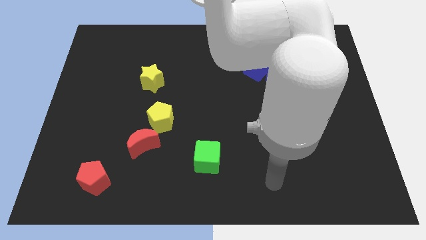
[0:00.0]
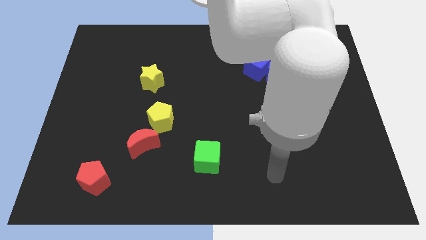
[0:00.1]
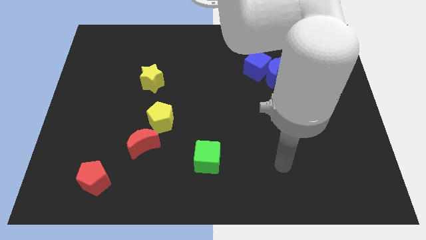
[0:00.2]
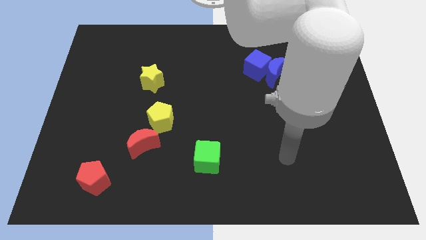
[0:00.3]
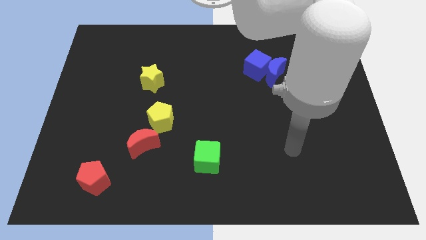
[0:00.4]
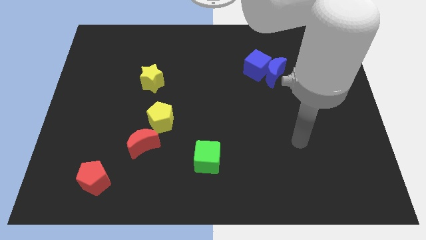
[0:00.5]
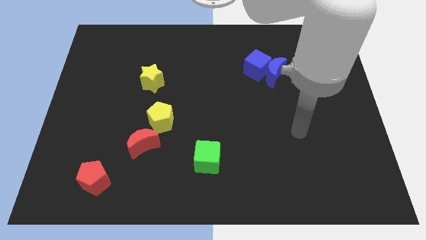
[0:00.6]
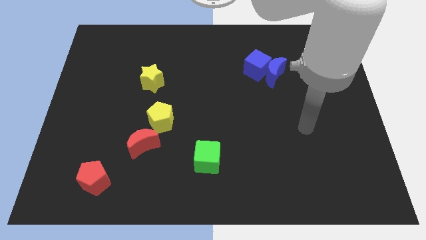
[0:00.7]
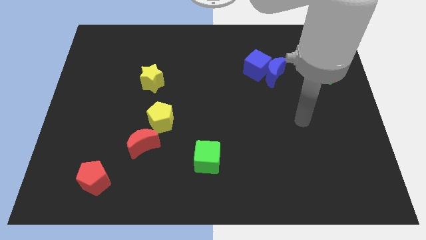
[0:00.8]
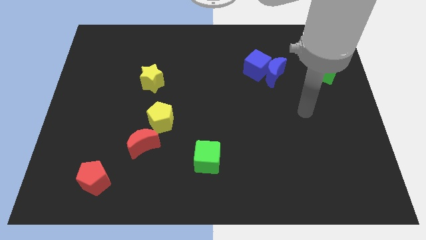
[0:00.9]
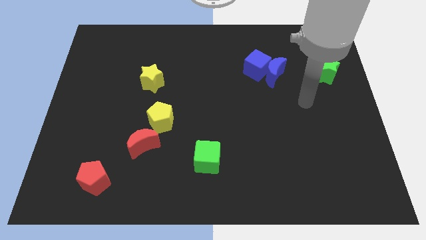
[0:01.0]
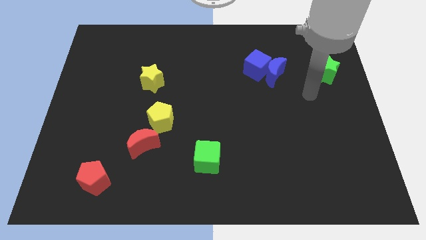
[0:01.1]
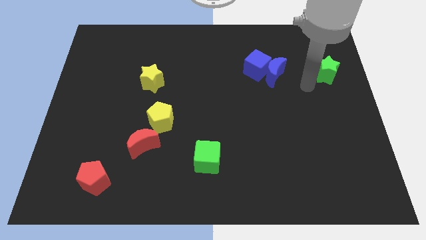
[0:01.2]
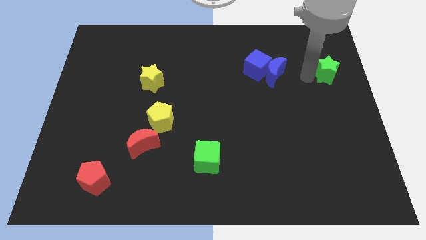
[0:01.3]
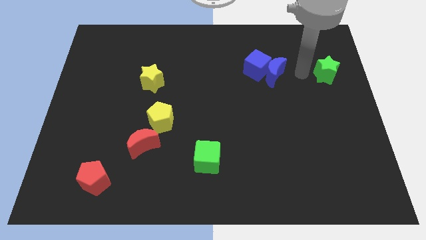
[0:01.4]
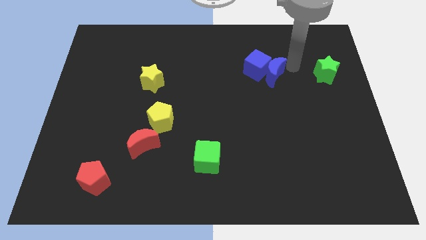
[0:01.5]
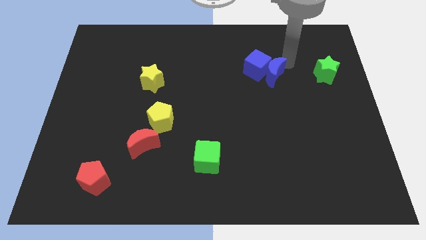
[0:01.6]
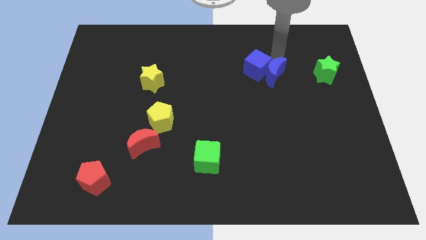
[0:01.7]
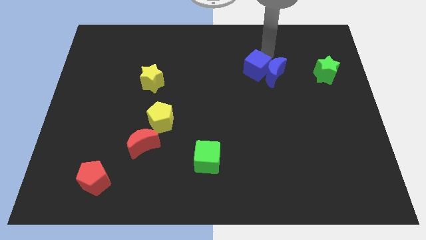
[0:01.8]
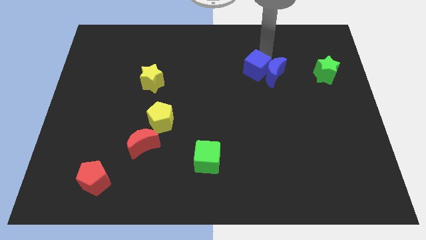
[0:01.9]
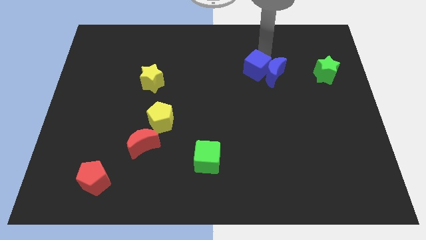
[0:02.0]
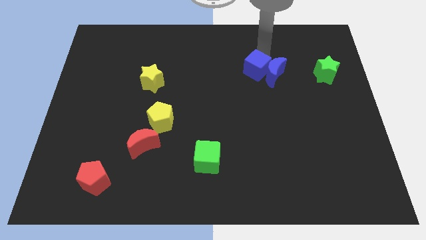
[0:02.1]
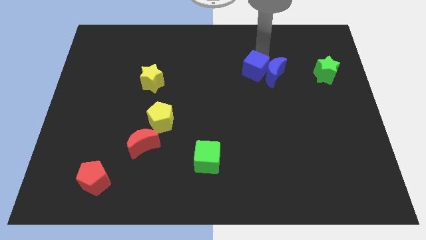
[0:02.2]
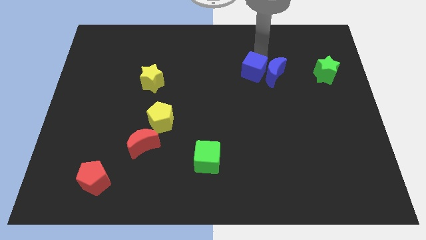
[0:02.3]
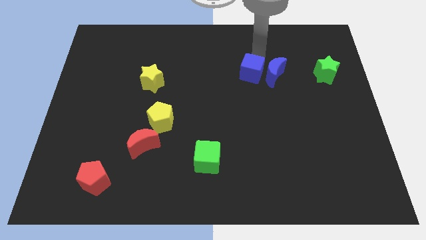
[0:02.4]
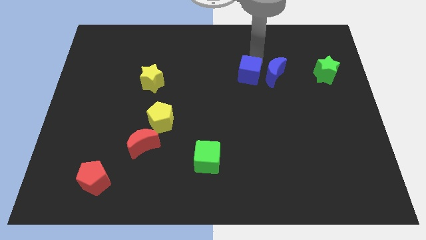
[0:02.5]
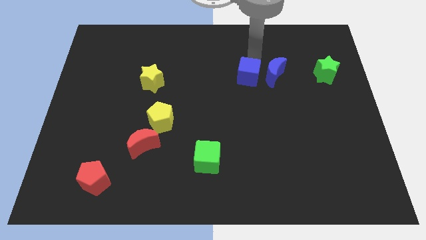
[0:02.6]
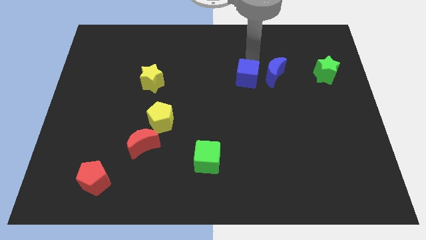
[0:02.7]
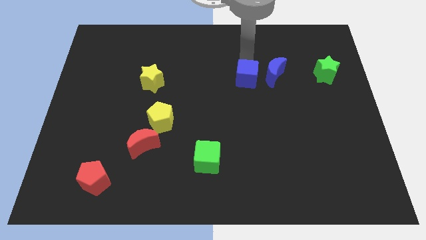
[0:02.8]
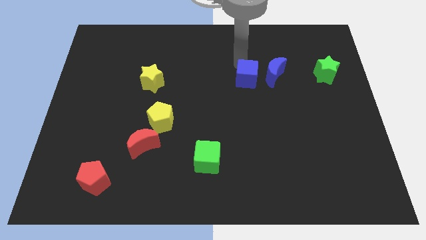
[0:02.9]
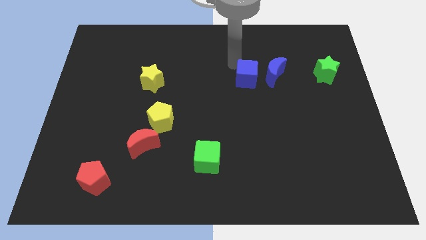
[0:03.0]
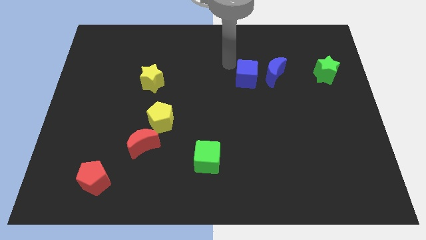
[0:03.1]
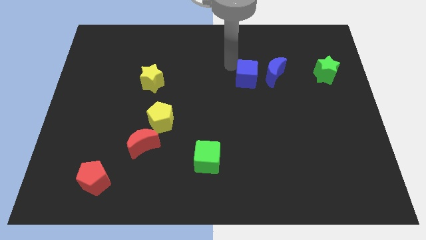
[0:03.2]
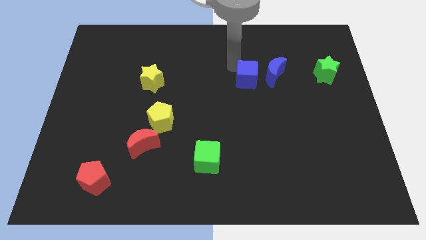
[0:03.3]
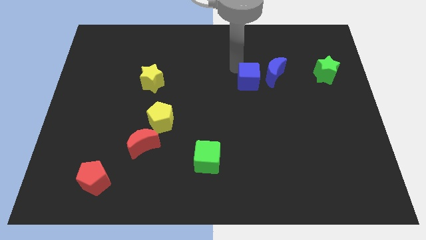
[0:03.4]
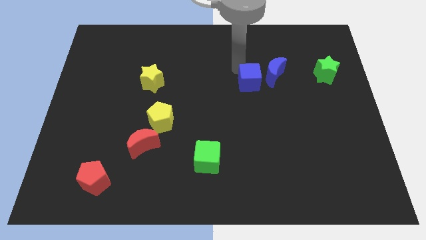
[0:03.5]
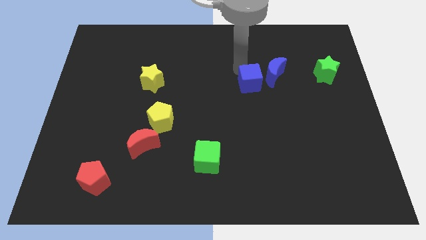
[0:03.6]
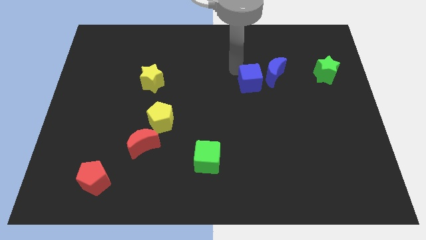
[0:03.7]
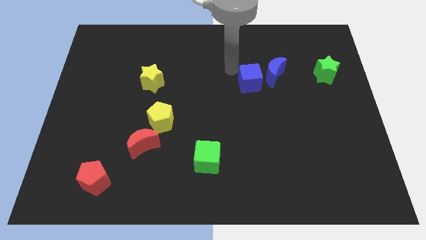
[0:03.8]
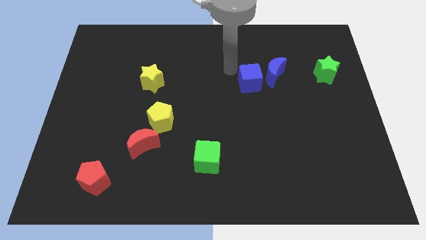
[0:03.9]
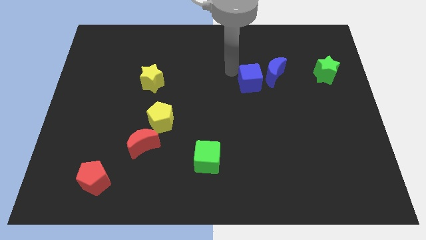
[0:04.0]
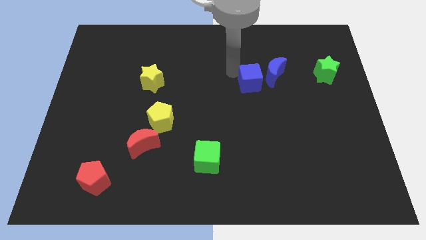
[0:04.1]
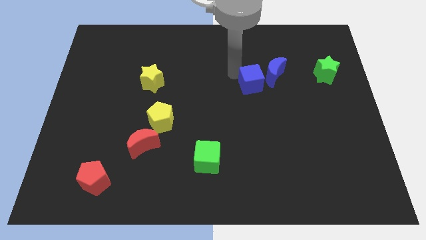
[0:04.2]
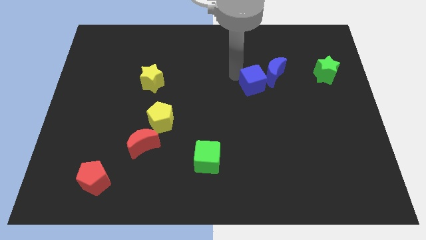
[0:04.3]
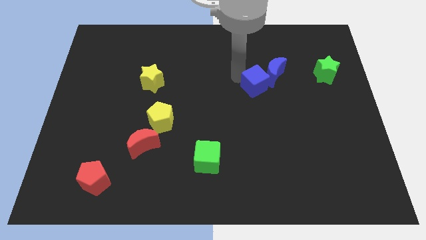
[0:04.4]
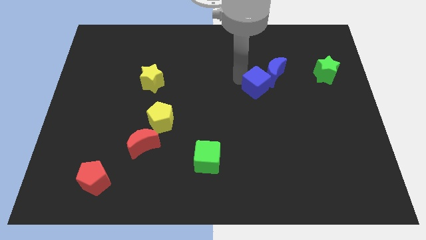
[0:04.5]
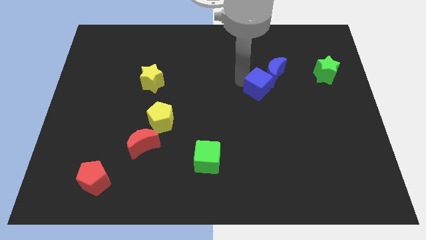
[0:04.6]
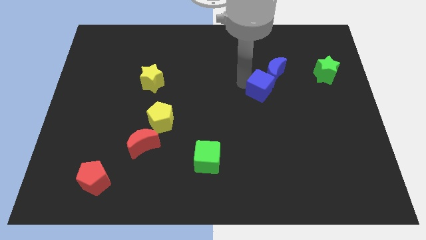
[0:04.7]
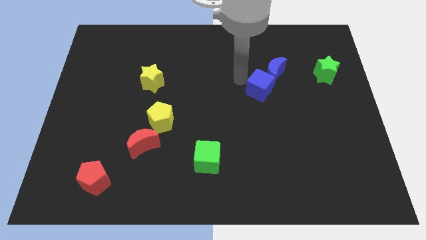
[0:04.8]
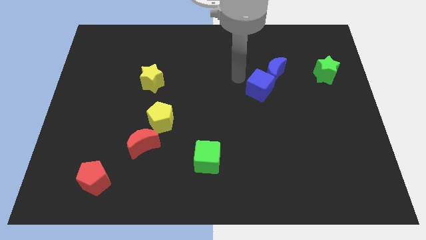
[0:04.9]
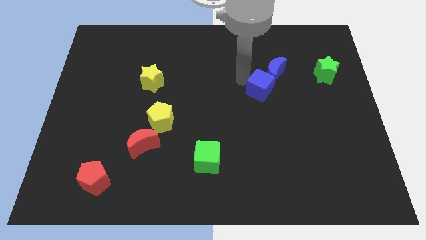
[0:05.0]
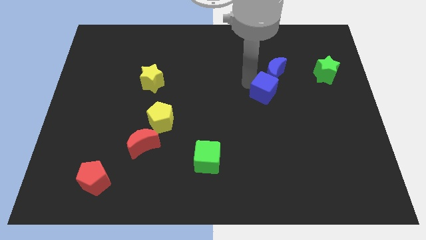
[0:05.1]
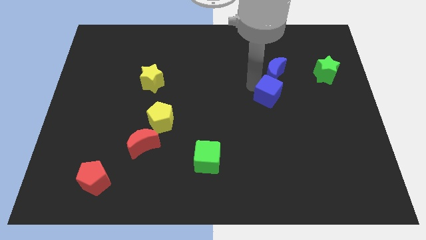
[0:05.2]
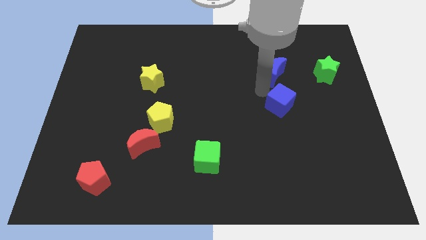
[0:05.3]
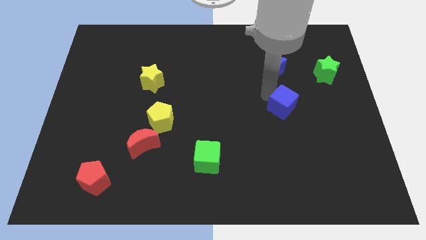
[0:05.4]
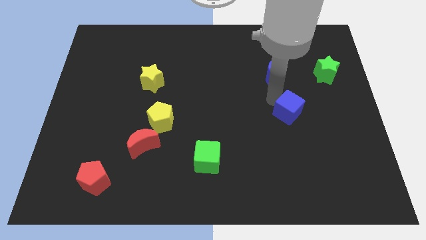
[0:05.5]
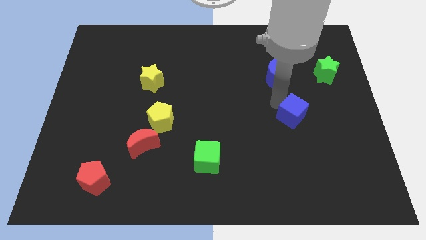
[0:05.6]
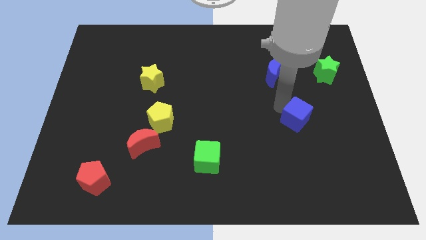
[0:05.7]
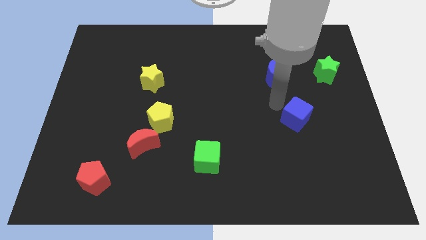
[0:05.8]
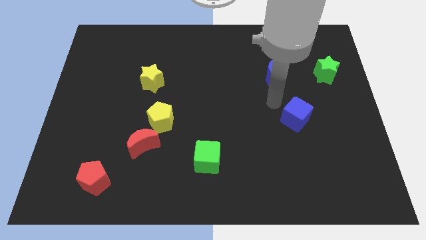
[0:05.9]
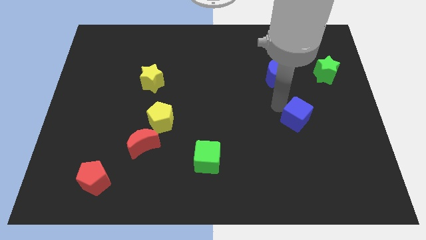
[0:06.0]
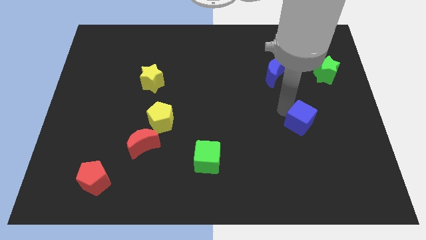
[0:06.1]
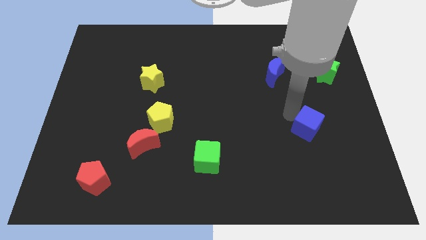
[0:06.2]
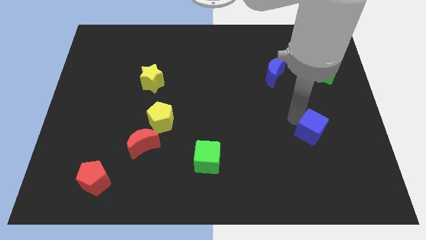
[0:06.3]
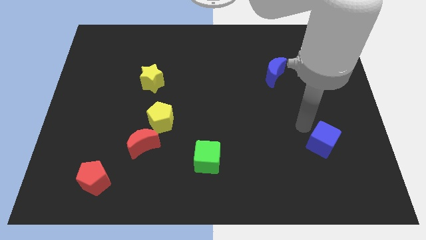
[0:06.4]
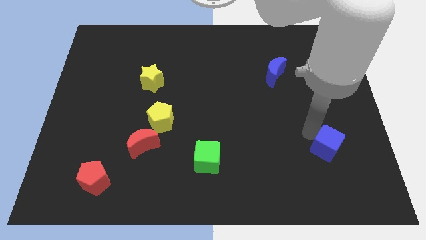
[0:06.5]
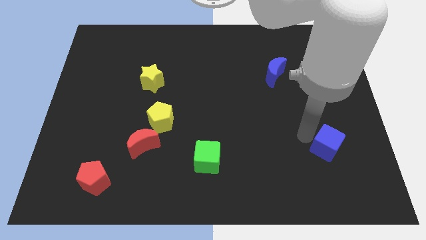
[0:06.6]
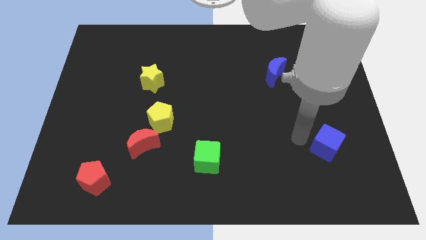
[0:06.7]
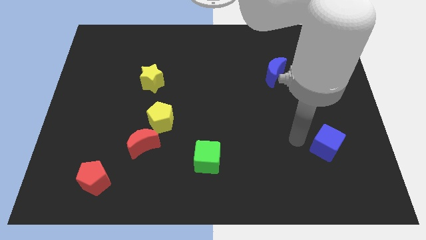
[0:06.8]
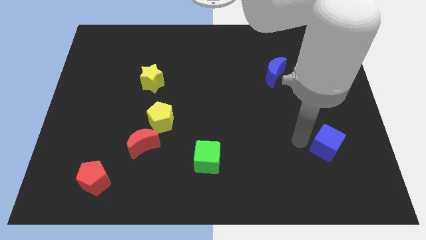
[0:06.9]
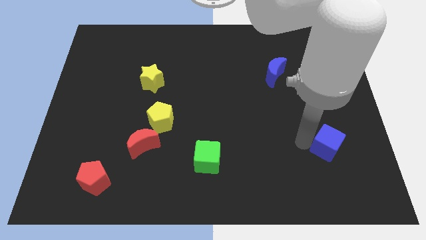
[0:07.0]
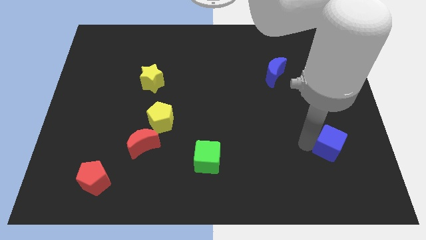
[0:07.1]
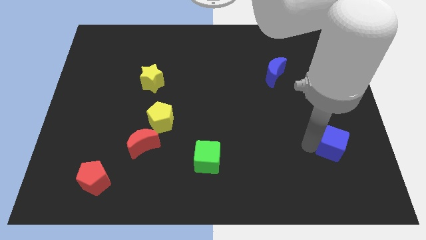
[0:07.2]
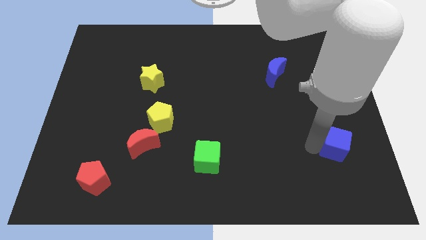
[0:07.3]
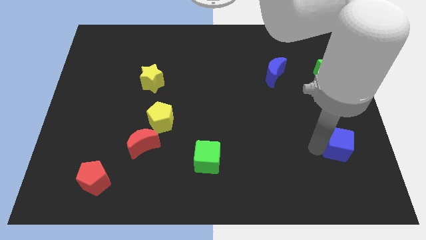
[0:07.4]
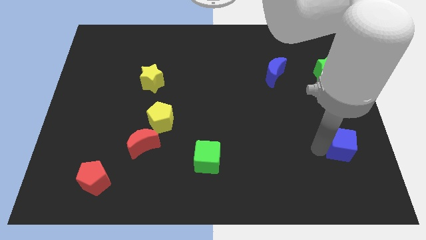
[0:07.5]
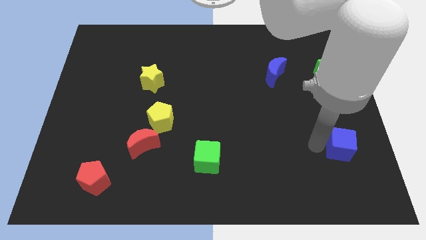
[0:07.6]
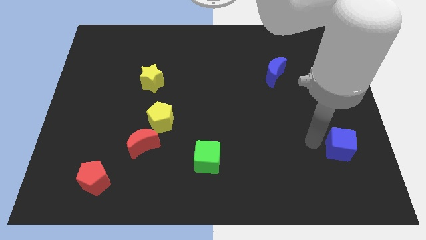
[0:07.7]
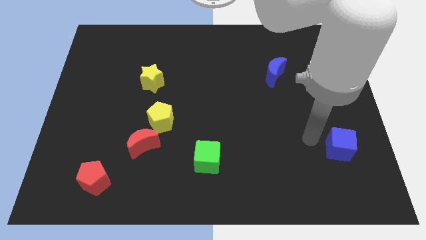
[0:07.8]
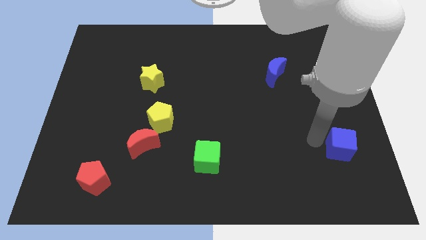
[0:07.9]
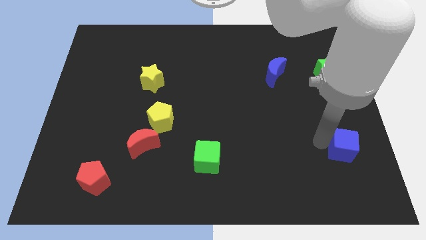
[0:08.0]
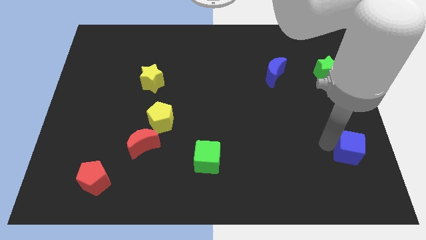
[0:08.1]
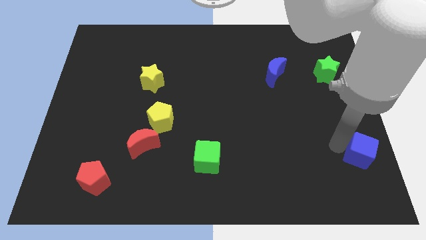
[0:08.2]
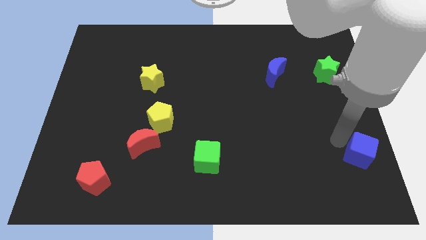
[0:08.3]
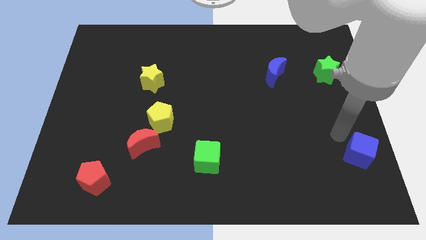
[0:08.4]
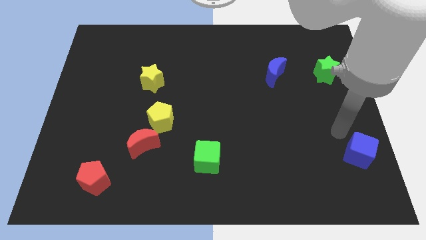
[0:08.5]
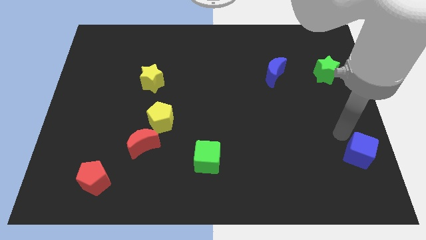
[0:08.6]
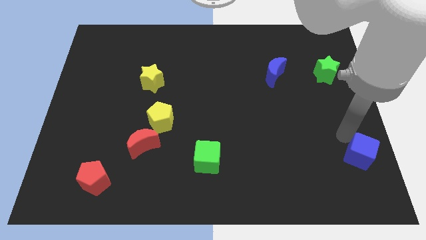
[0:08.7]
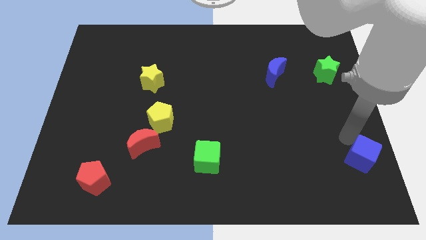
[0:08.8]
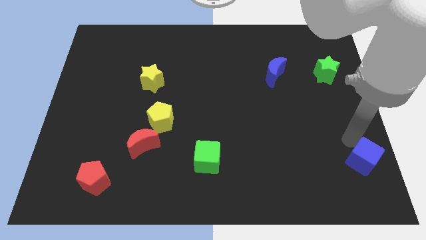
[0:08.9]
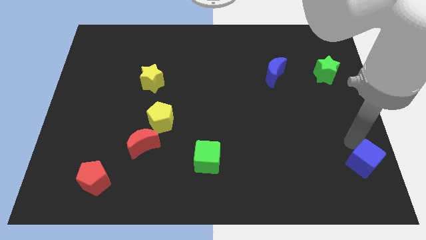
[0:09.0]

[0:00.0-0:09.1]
slide the blue cube to the bottom right
